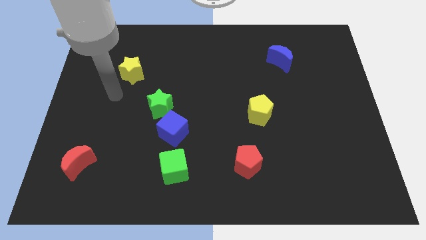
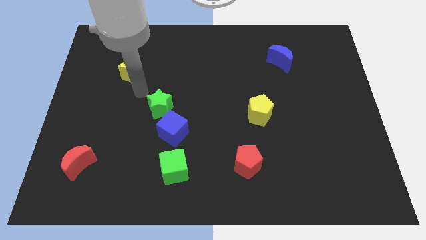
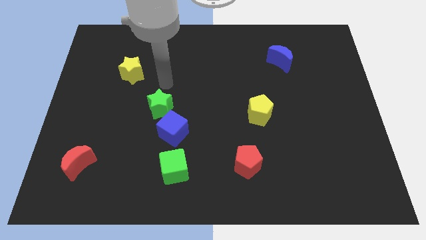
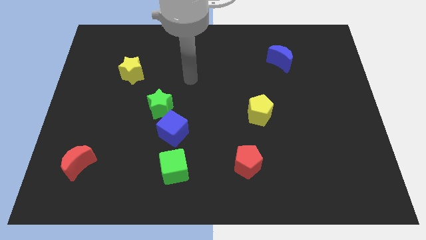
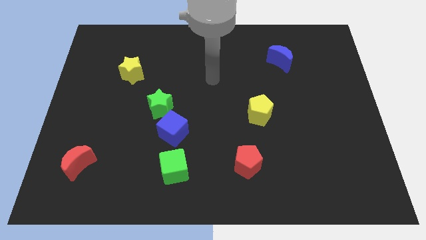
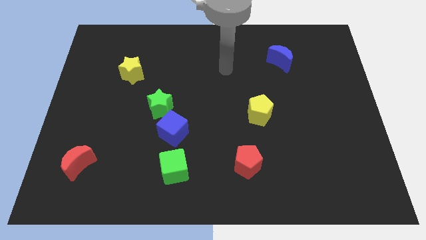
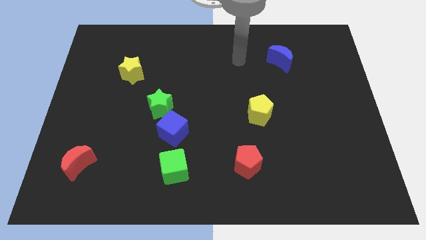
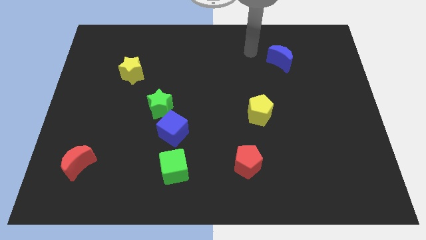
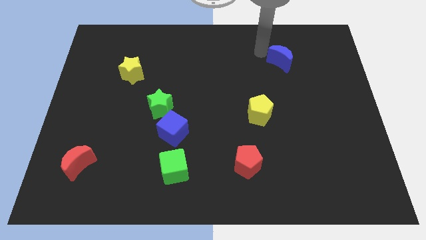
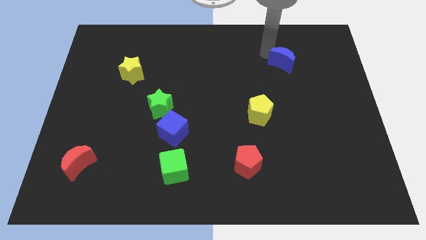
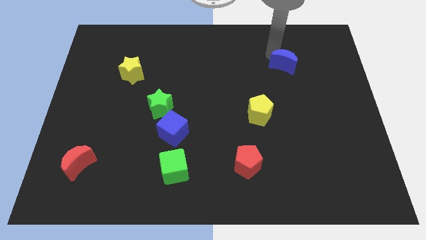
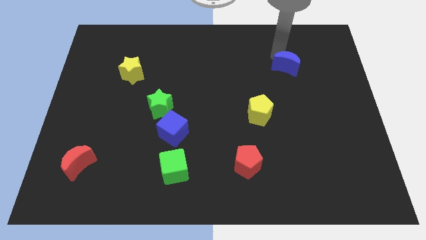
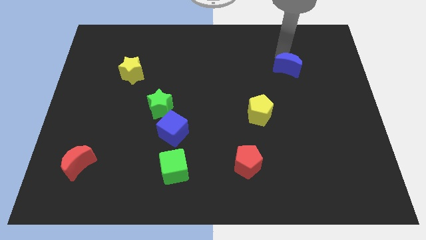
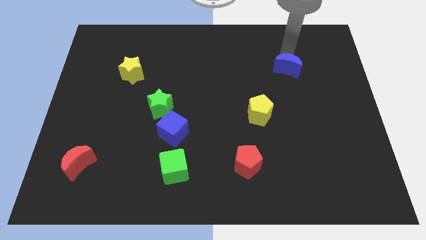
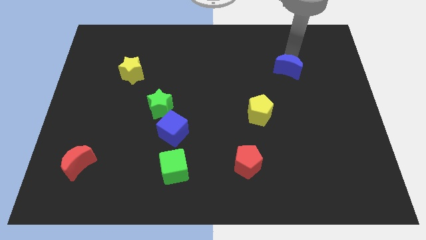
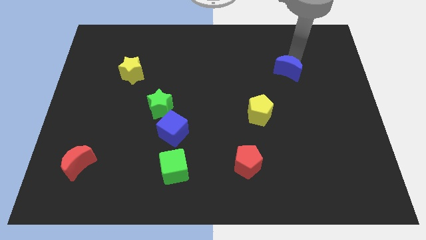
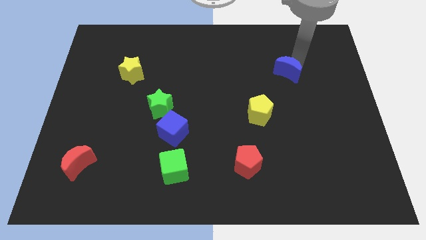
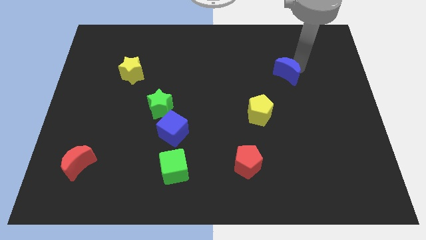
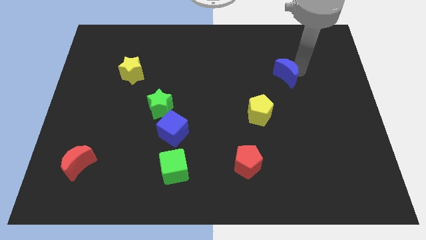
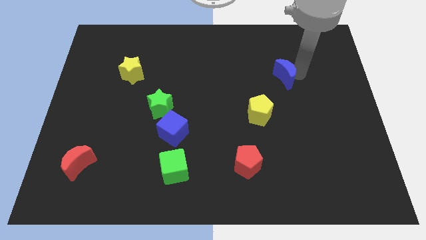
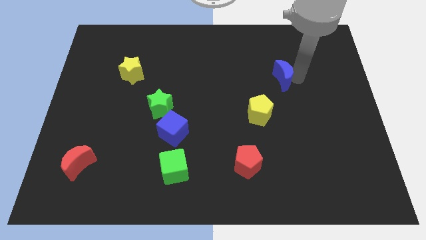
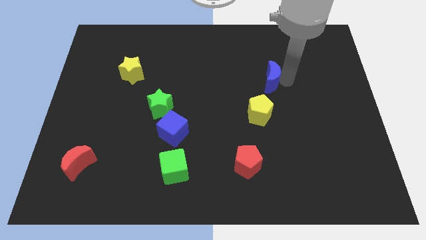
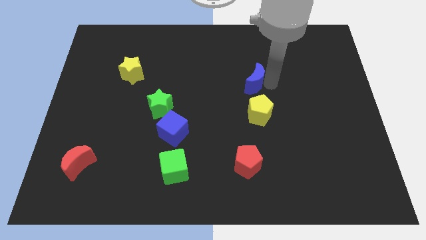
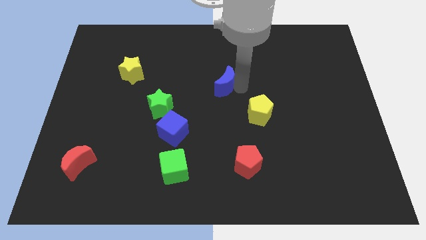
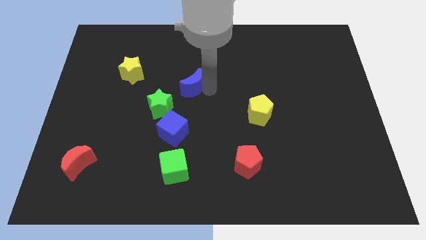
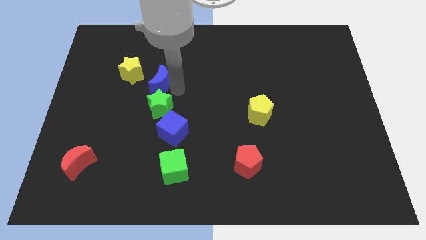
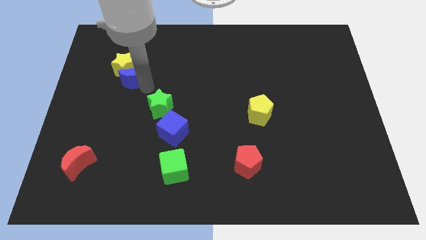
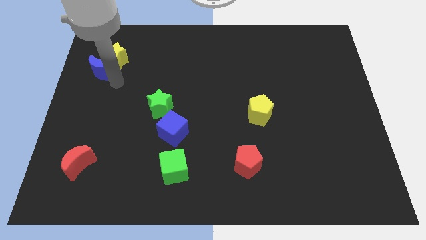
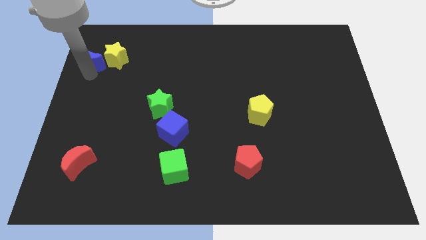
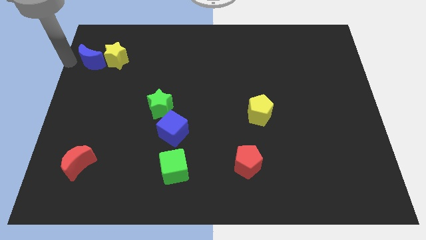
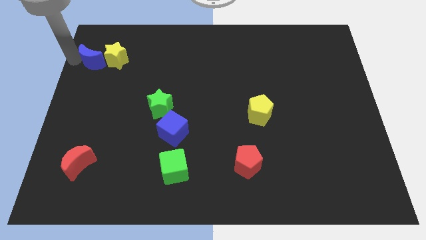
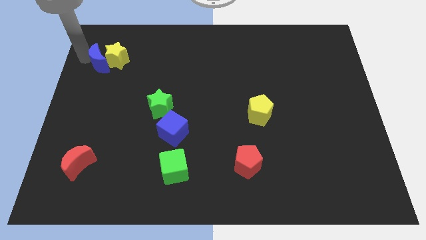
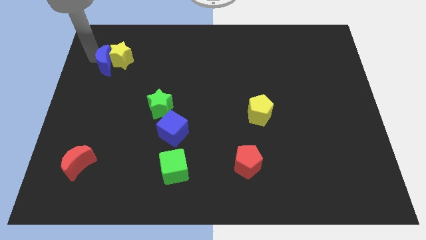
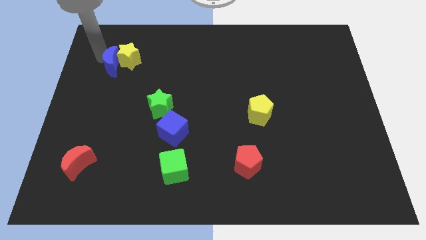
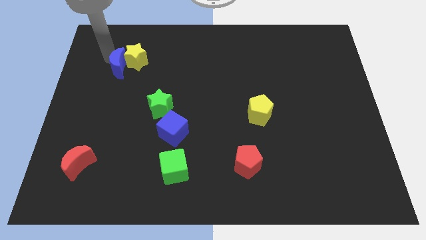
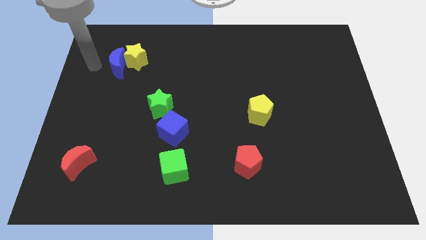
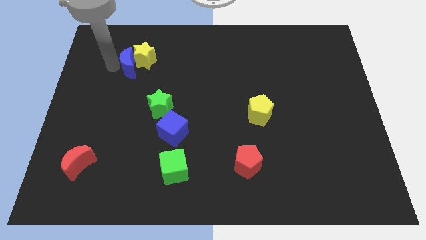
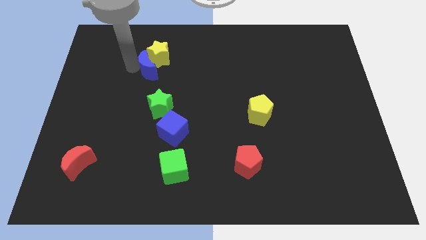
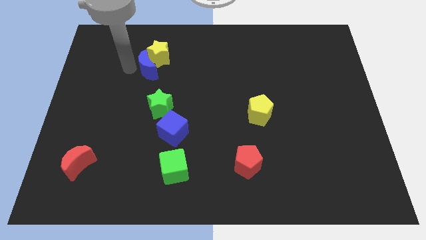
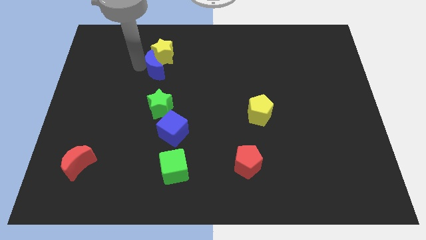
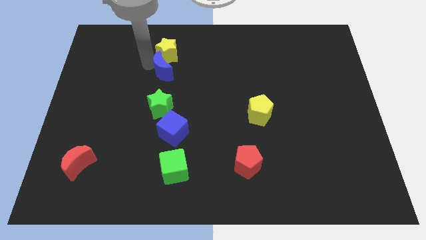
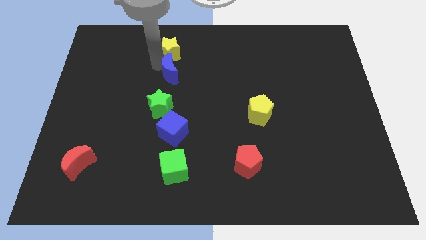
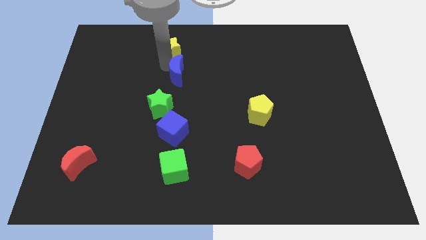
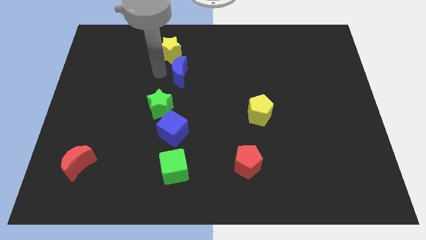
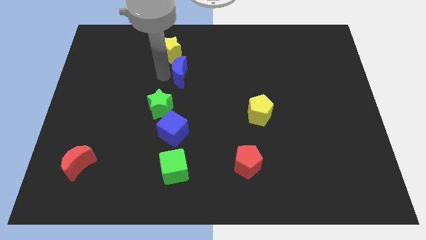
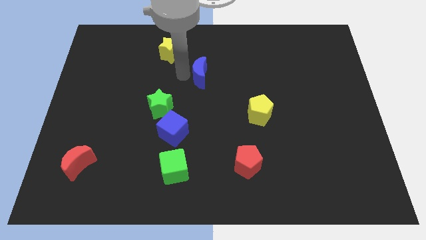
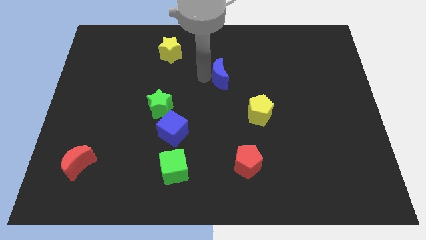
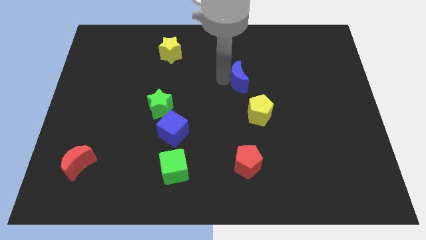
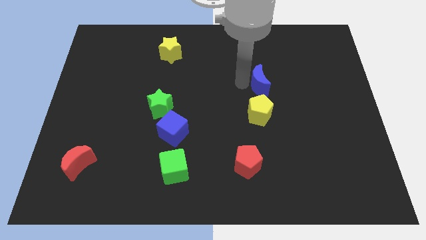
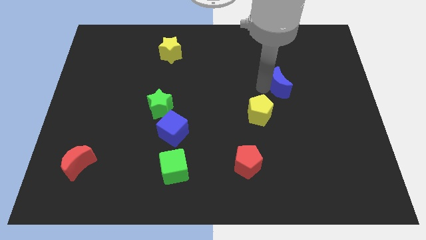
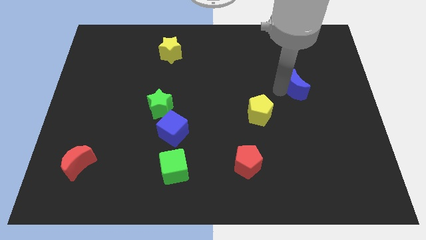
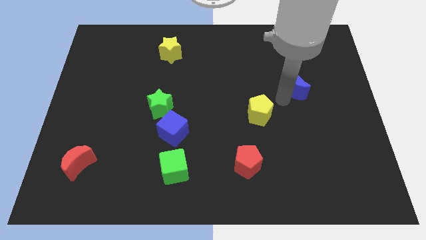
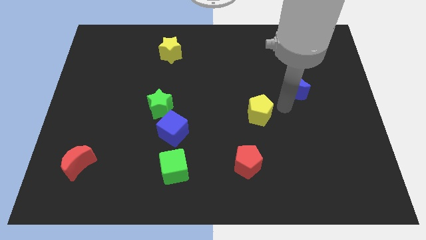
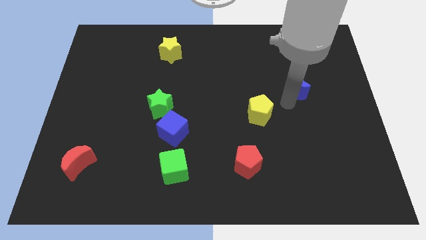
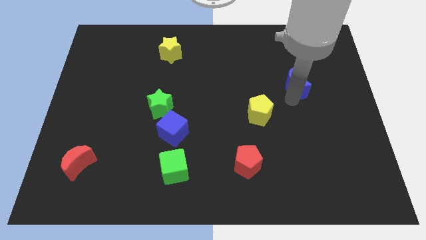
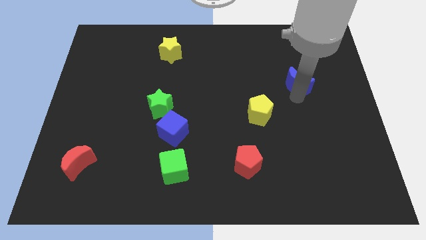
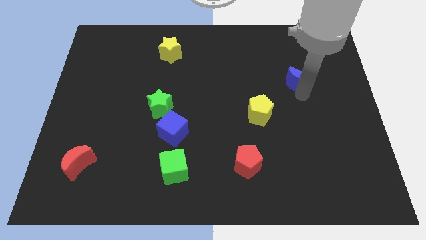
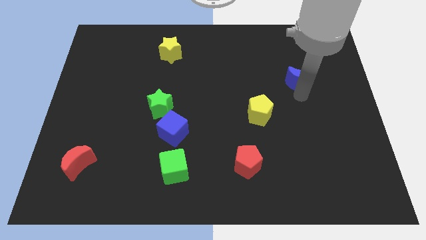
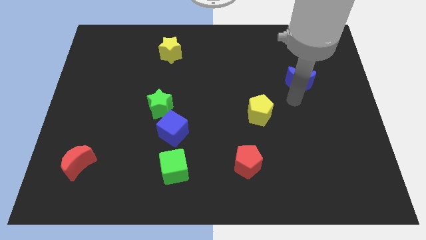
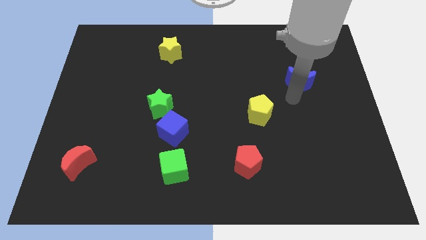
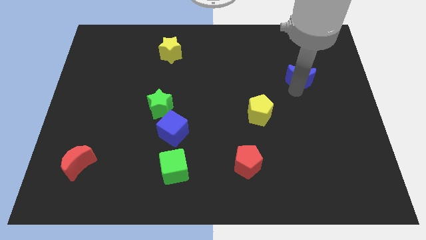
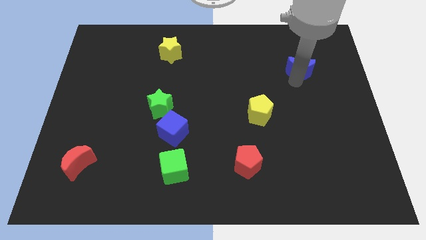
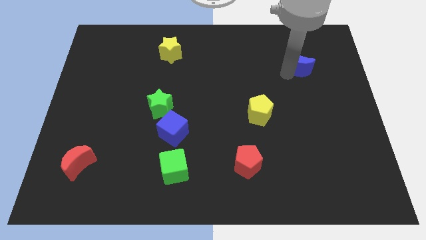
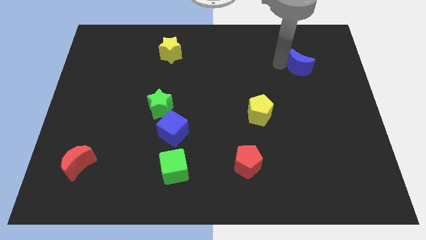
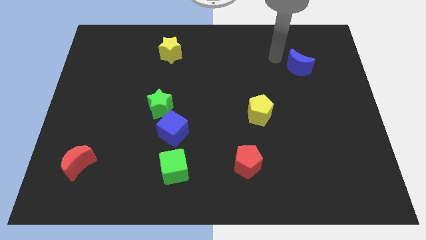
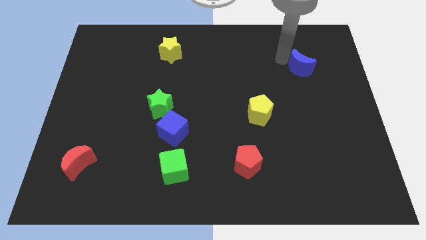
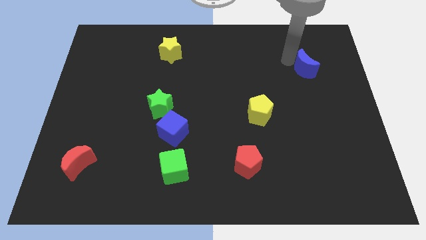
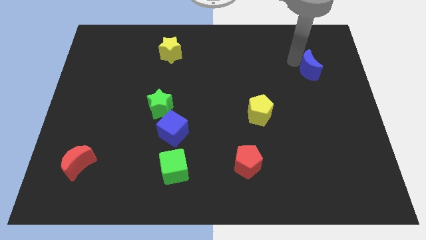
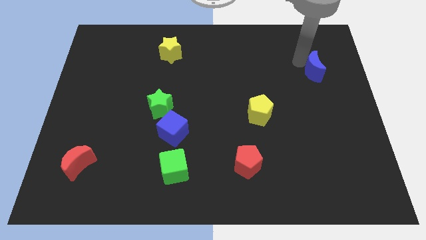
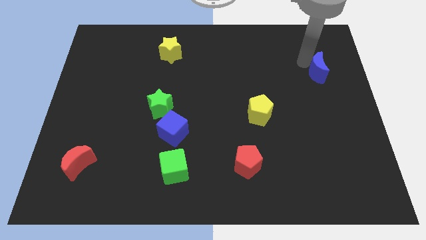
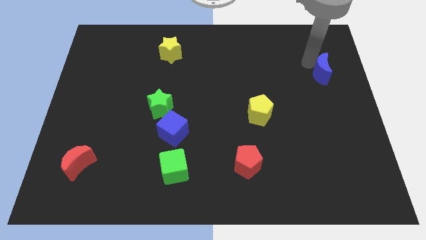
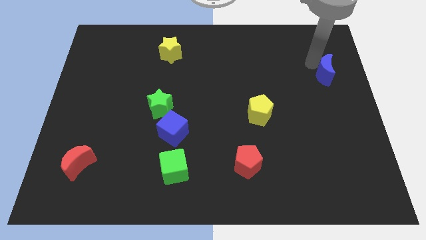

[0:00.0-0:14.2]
slide the blue moon to the right side of the board
